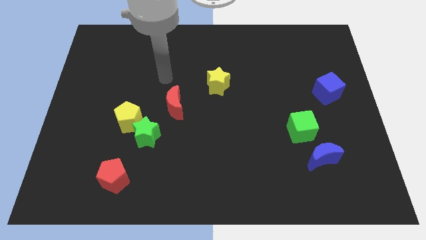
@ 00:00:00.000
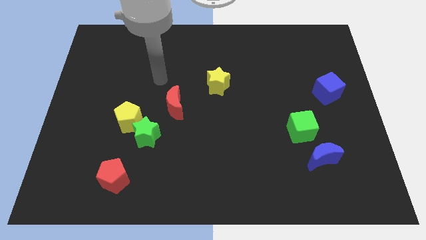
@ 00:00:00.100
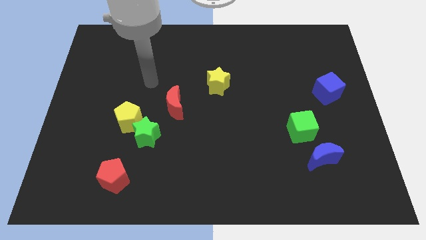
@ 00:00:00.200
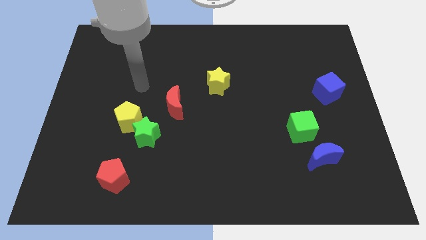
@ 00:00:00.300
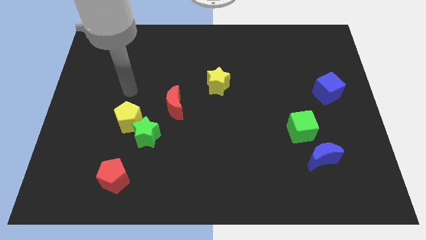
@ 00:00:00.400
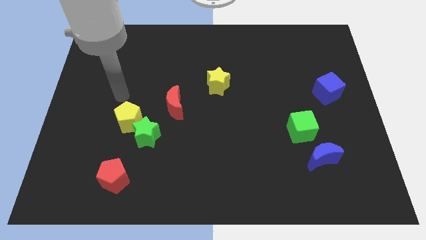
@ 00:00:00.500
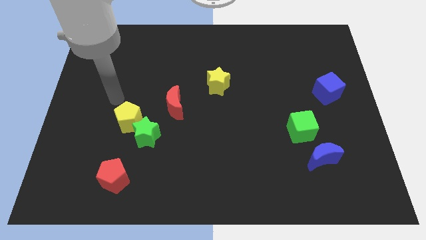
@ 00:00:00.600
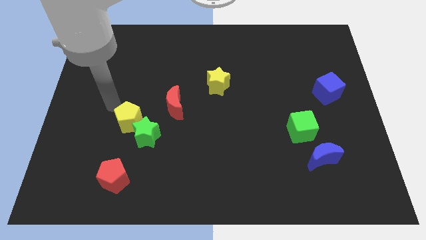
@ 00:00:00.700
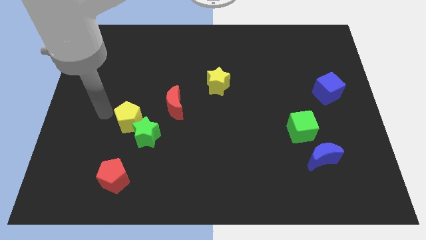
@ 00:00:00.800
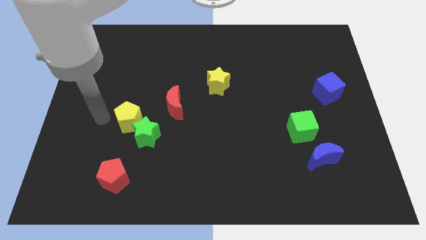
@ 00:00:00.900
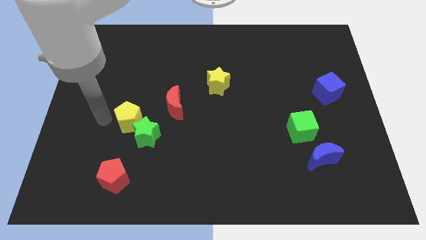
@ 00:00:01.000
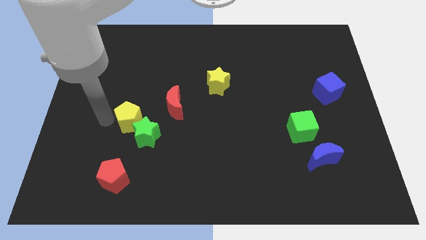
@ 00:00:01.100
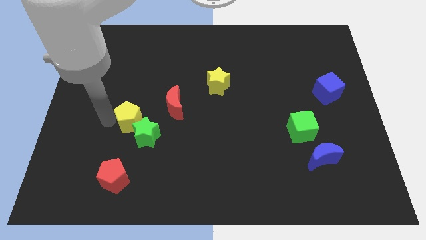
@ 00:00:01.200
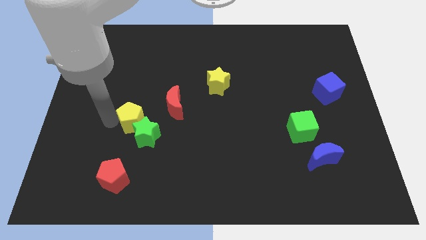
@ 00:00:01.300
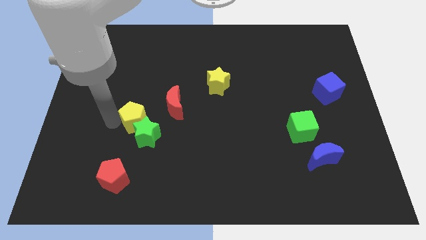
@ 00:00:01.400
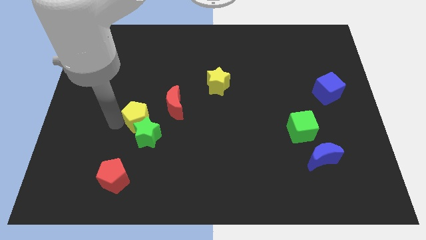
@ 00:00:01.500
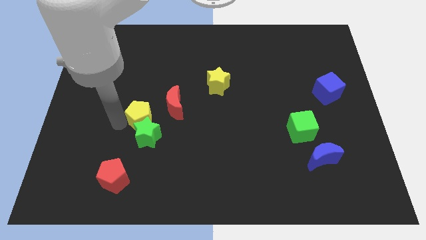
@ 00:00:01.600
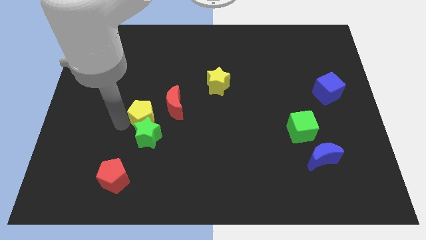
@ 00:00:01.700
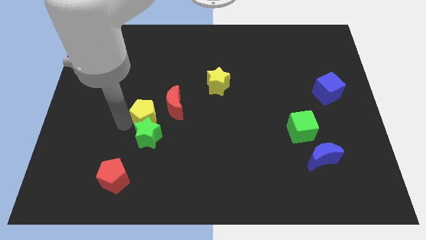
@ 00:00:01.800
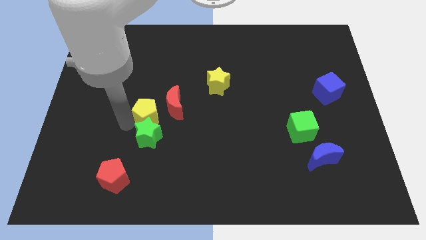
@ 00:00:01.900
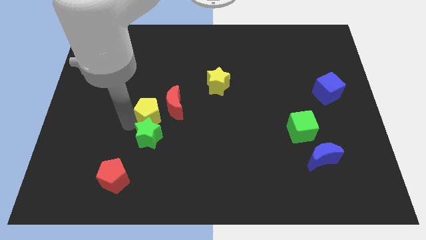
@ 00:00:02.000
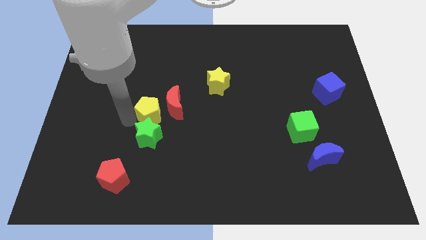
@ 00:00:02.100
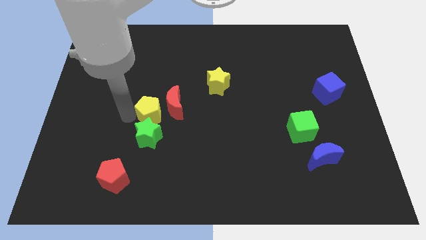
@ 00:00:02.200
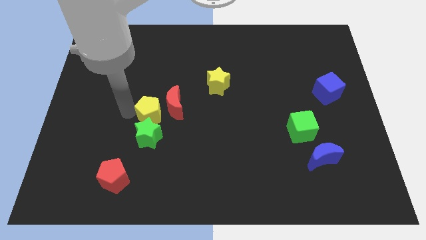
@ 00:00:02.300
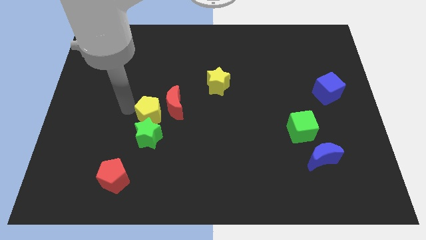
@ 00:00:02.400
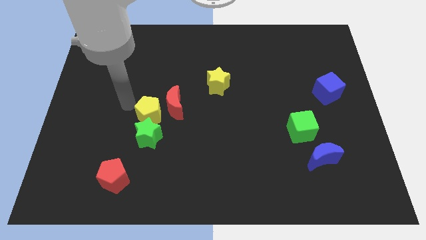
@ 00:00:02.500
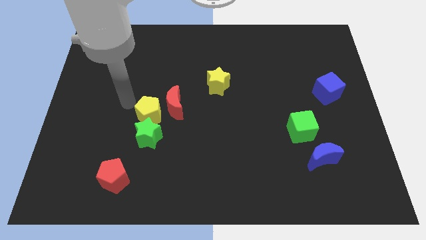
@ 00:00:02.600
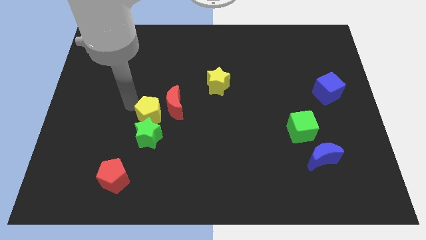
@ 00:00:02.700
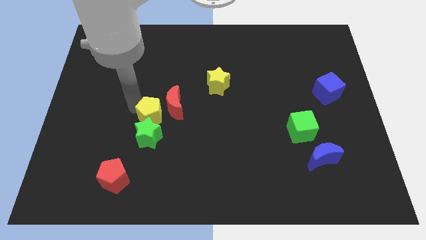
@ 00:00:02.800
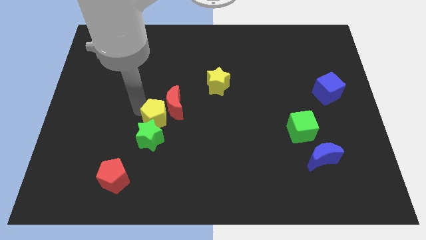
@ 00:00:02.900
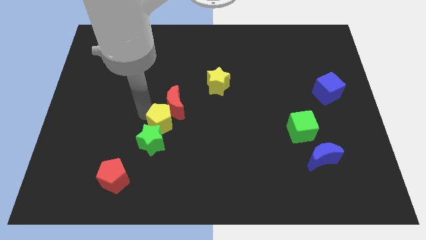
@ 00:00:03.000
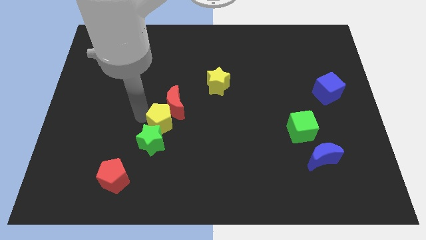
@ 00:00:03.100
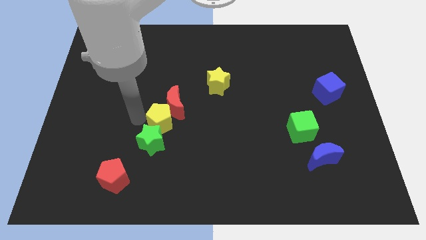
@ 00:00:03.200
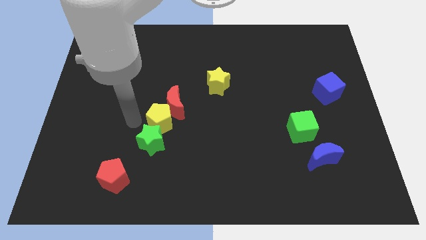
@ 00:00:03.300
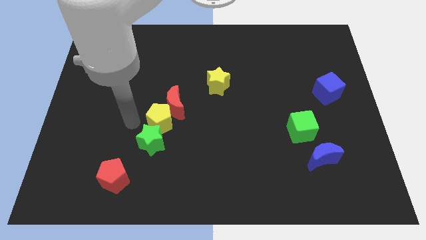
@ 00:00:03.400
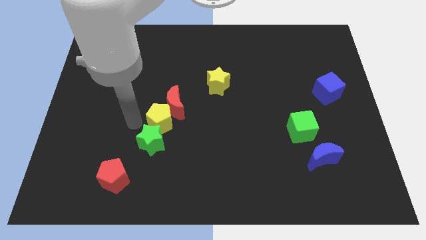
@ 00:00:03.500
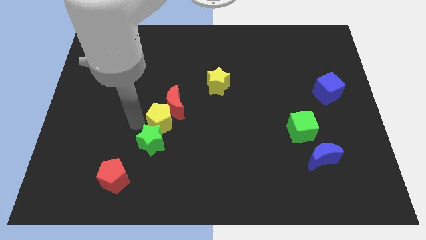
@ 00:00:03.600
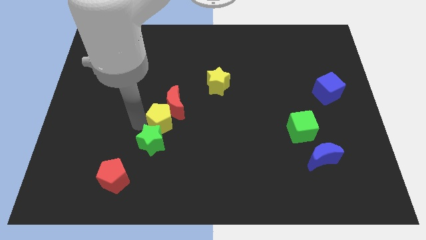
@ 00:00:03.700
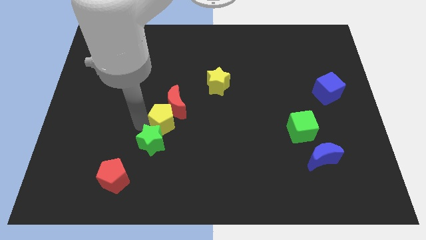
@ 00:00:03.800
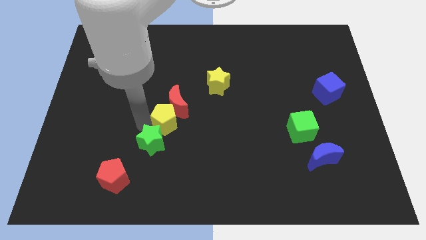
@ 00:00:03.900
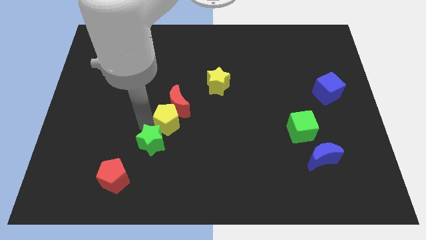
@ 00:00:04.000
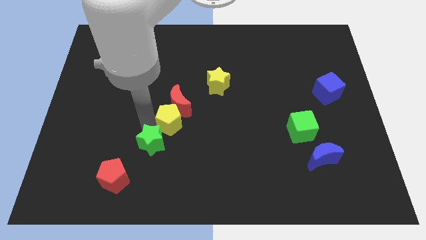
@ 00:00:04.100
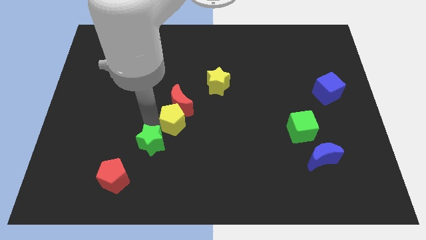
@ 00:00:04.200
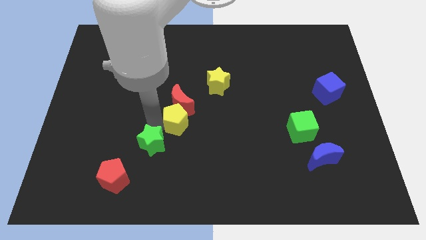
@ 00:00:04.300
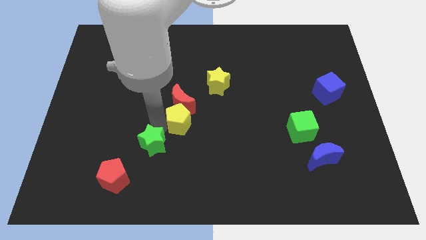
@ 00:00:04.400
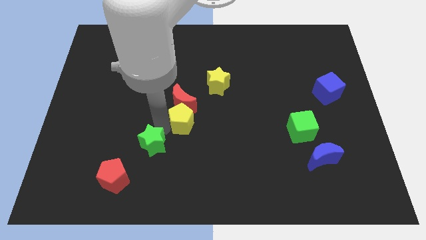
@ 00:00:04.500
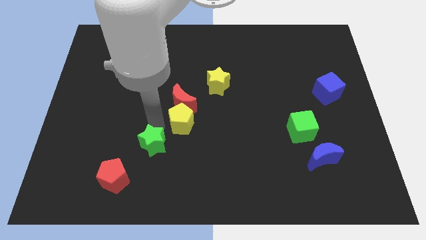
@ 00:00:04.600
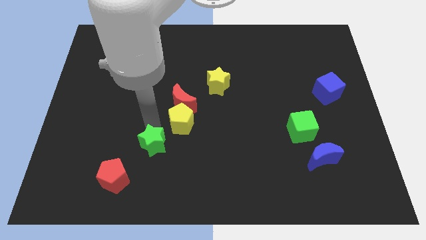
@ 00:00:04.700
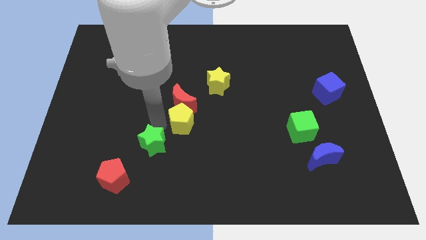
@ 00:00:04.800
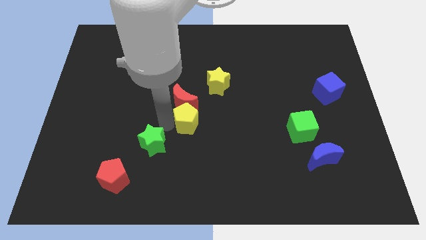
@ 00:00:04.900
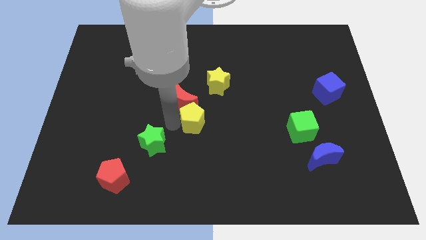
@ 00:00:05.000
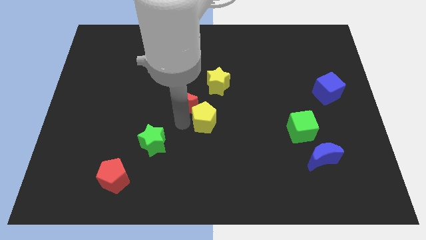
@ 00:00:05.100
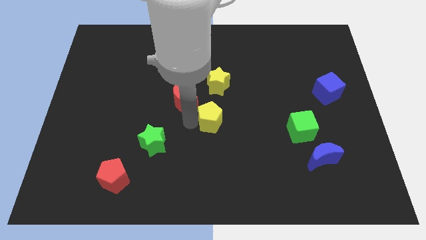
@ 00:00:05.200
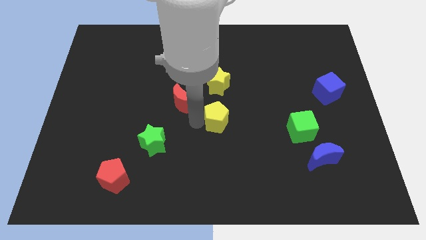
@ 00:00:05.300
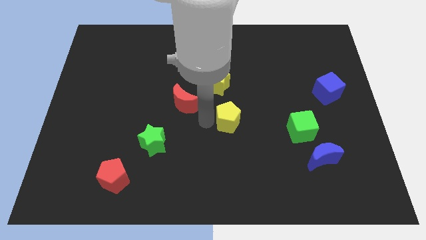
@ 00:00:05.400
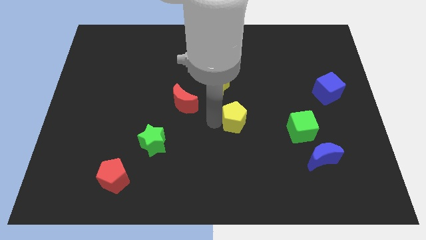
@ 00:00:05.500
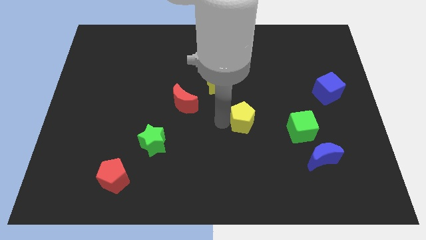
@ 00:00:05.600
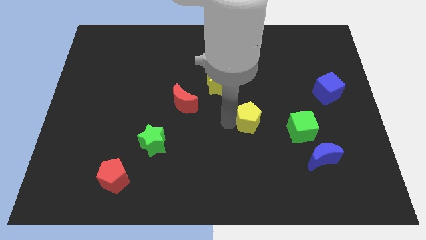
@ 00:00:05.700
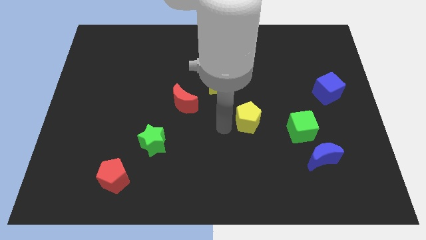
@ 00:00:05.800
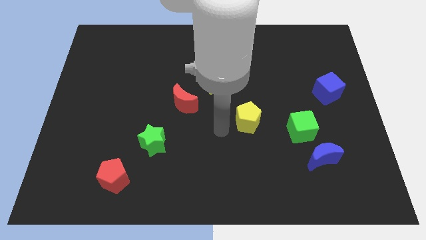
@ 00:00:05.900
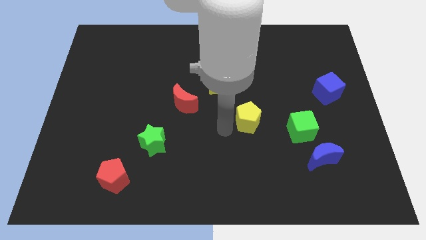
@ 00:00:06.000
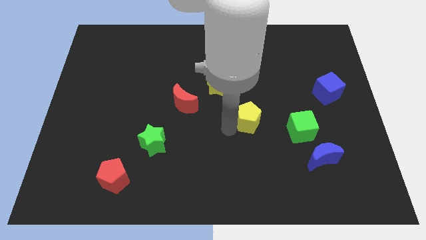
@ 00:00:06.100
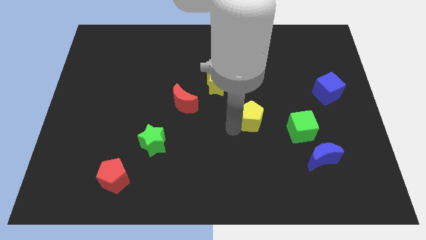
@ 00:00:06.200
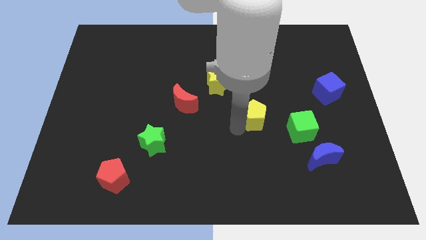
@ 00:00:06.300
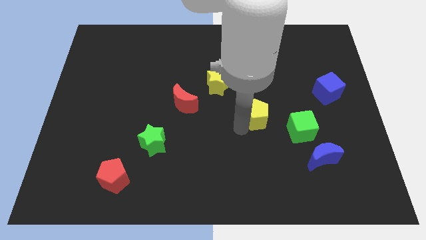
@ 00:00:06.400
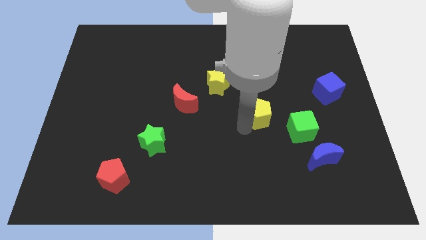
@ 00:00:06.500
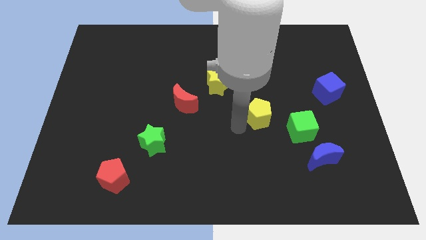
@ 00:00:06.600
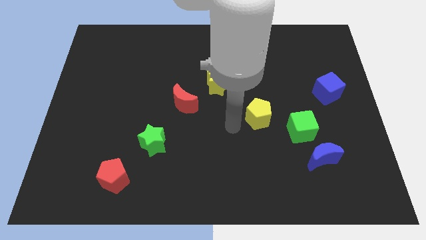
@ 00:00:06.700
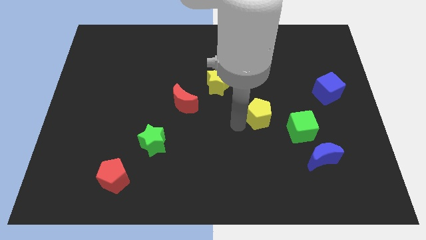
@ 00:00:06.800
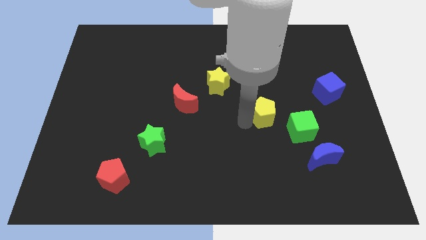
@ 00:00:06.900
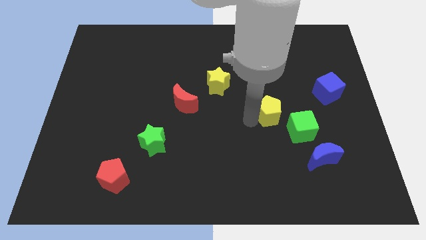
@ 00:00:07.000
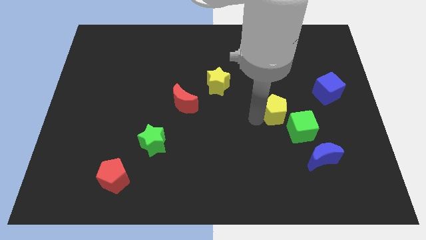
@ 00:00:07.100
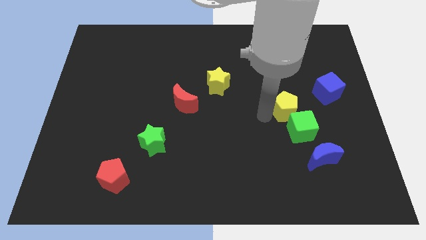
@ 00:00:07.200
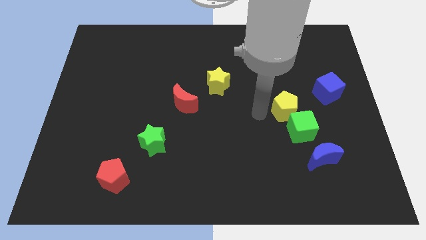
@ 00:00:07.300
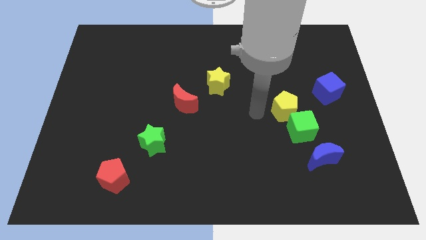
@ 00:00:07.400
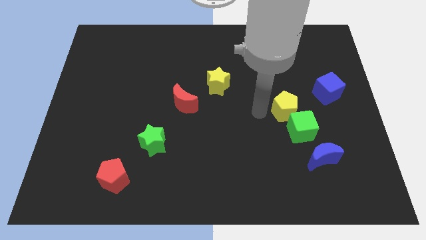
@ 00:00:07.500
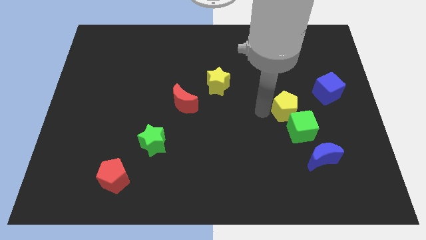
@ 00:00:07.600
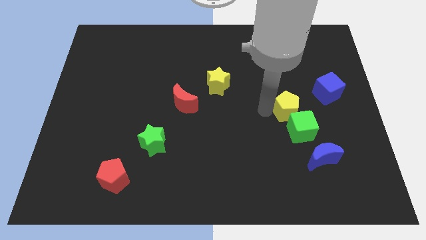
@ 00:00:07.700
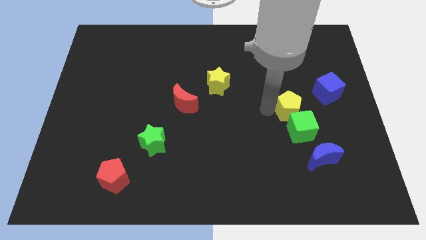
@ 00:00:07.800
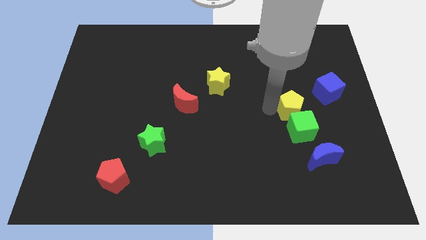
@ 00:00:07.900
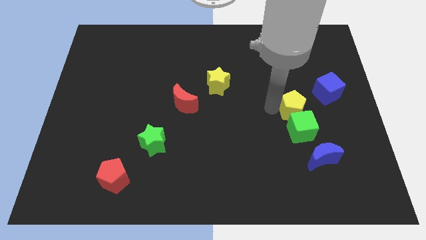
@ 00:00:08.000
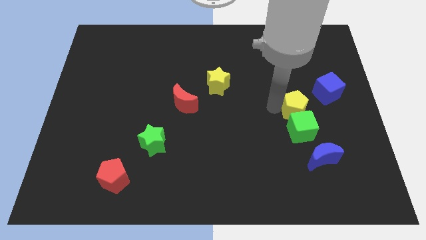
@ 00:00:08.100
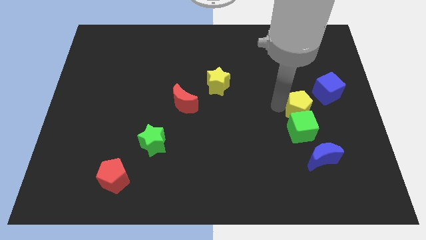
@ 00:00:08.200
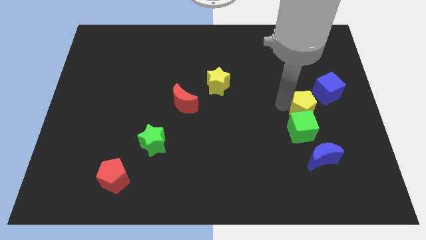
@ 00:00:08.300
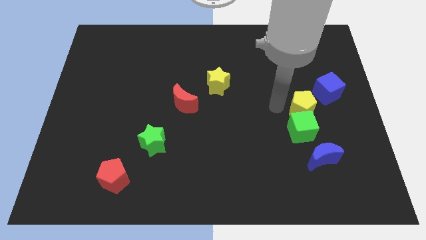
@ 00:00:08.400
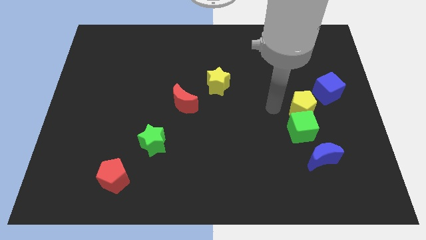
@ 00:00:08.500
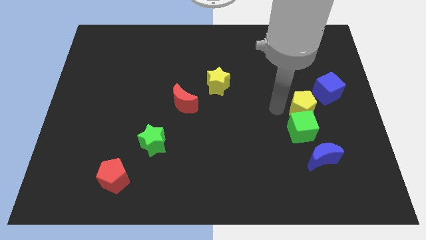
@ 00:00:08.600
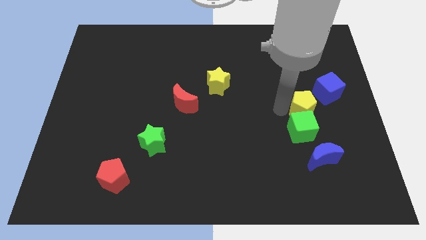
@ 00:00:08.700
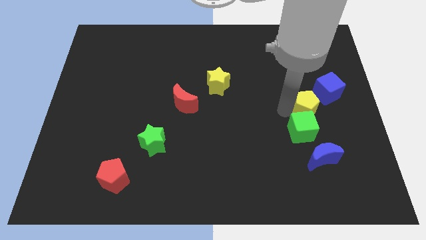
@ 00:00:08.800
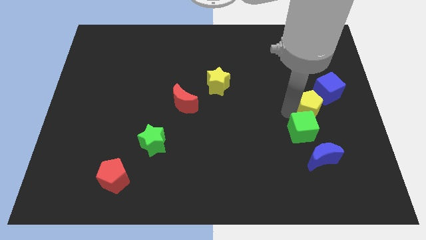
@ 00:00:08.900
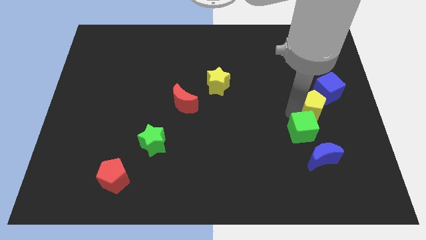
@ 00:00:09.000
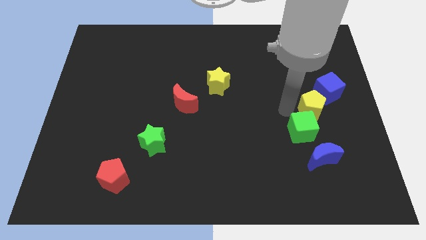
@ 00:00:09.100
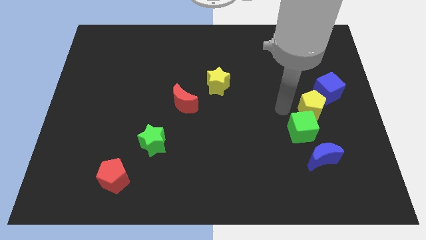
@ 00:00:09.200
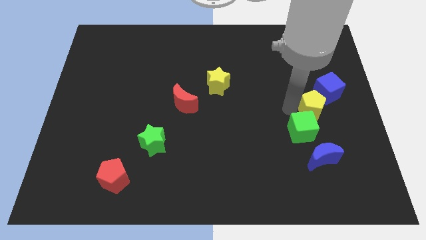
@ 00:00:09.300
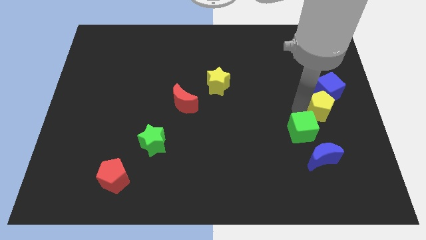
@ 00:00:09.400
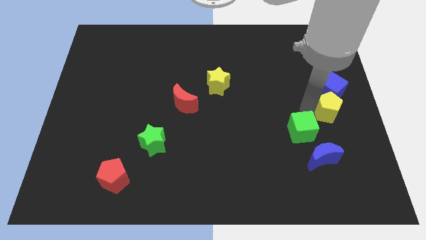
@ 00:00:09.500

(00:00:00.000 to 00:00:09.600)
push the yellow pentagon to the right side
